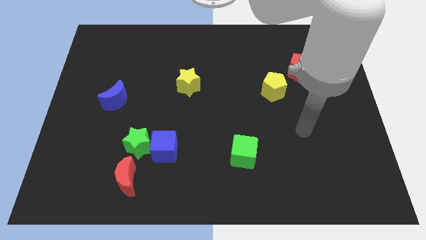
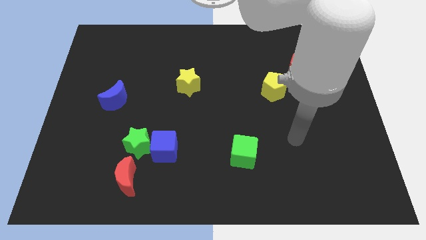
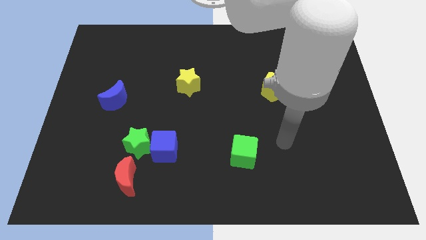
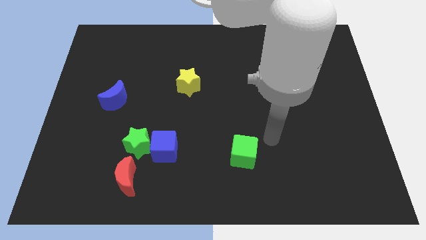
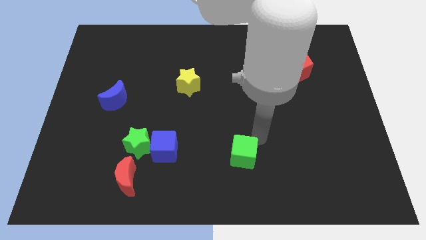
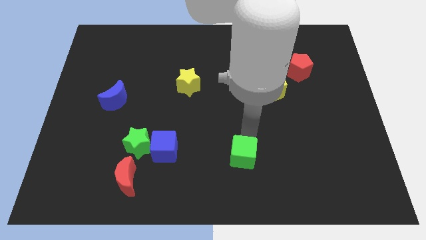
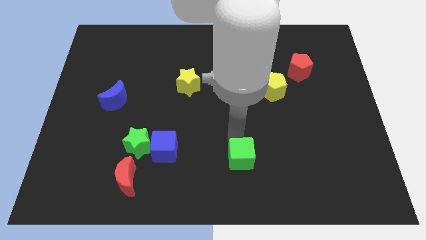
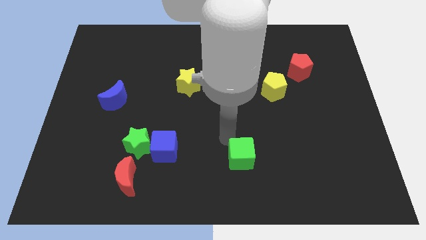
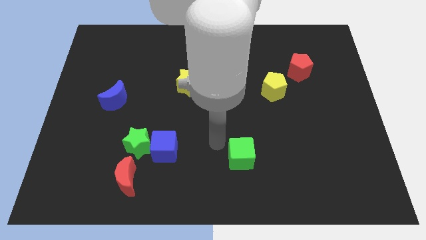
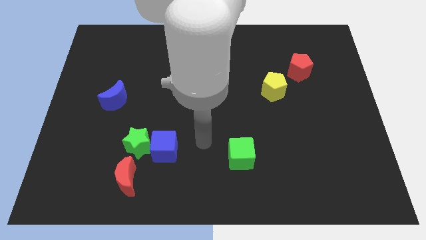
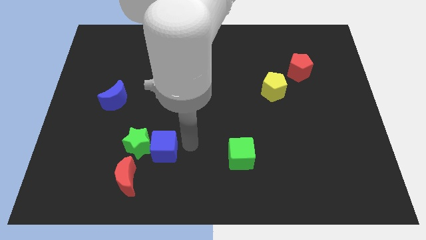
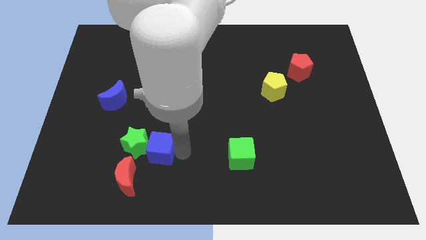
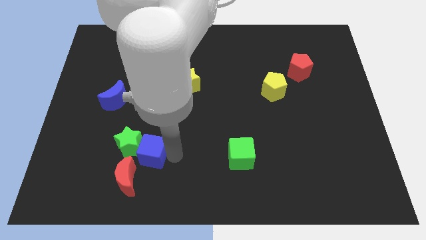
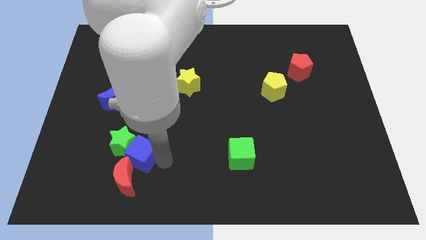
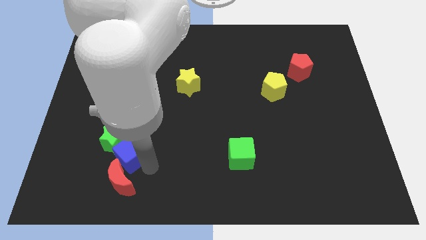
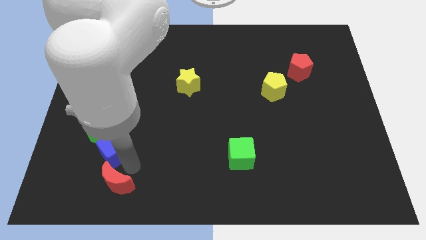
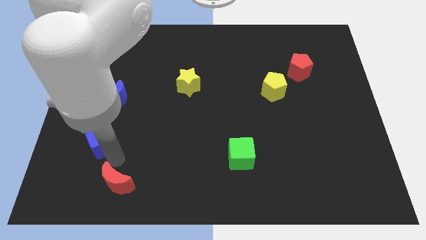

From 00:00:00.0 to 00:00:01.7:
separate the green star from the blue cube and red moon

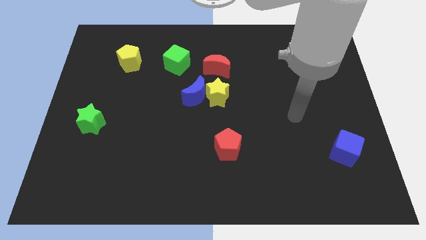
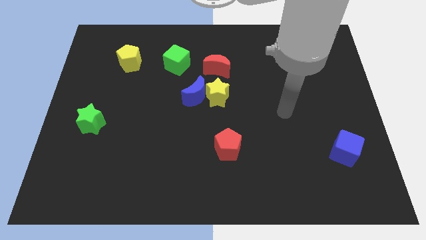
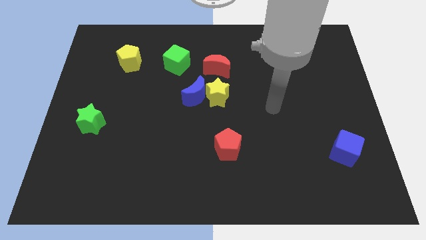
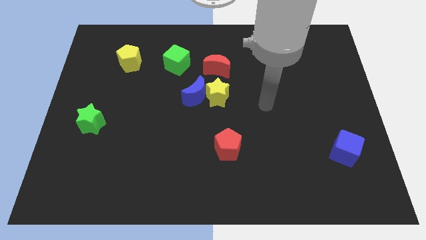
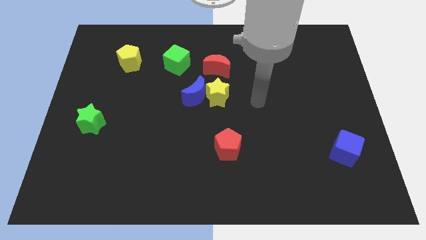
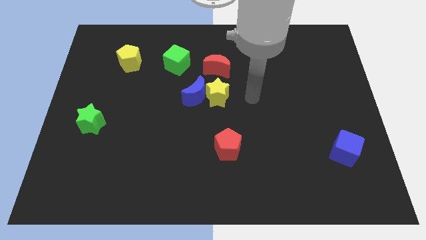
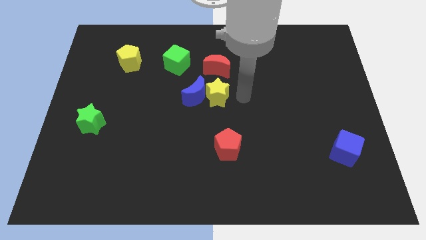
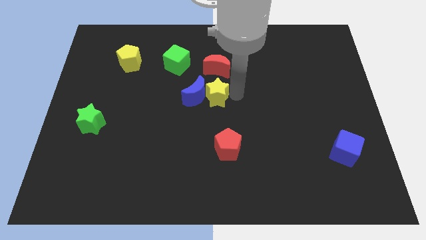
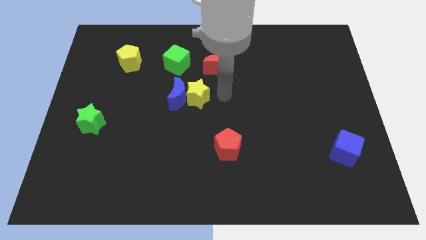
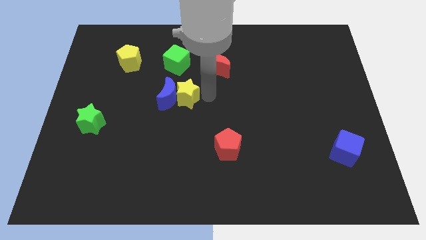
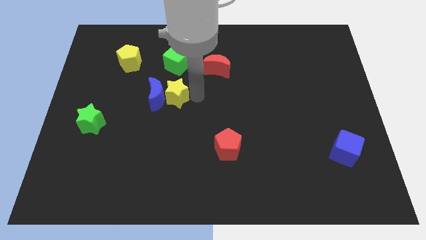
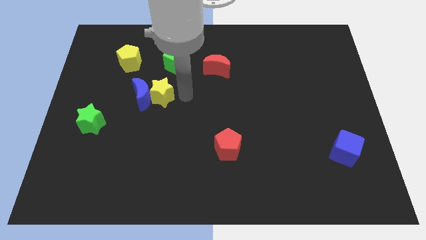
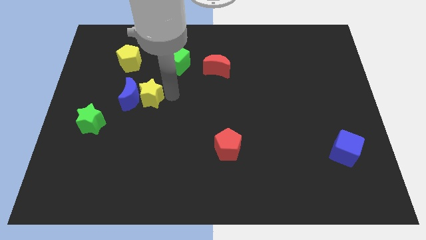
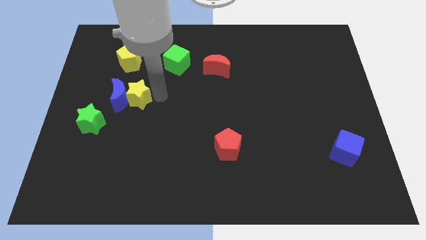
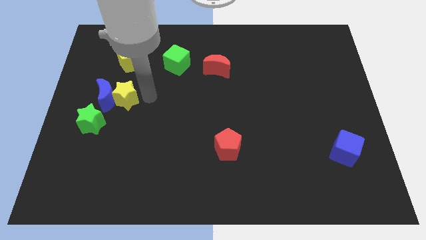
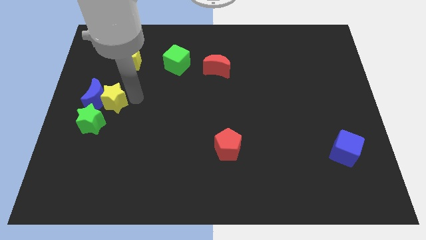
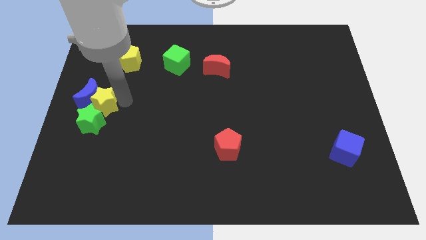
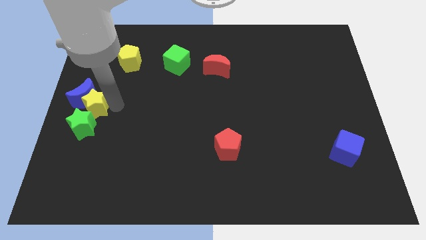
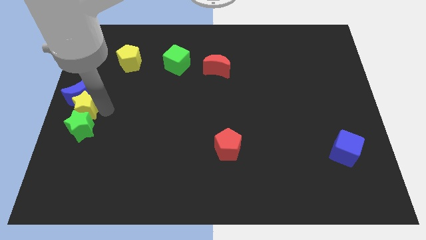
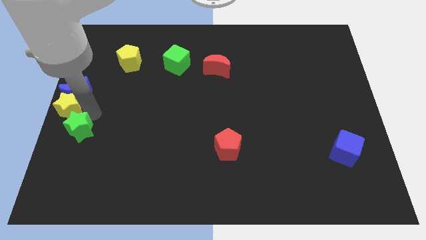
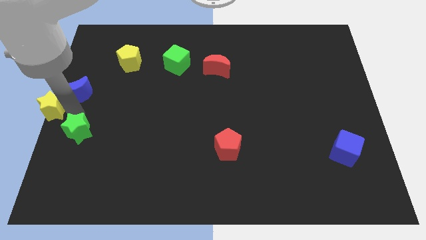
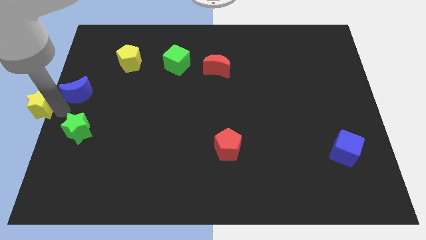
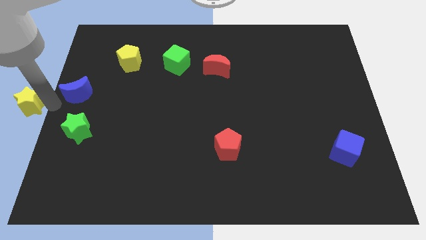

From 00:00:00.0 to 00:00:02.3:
separate the blue moon from the yellow star

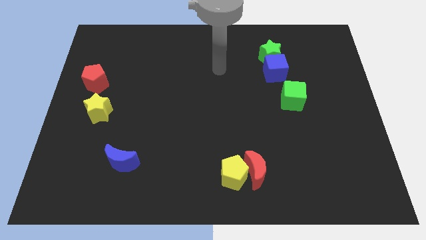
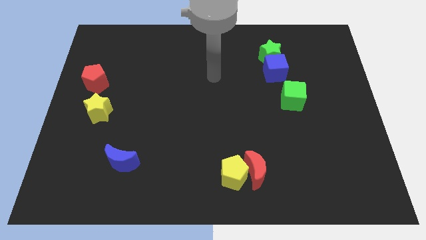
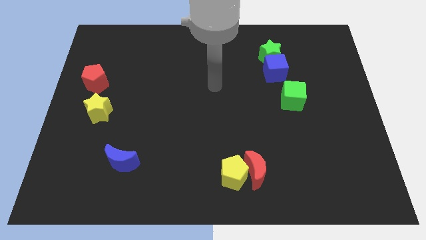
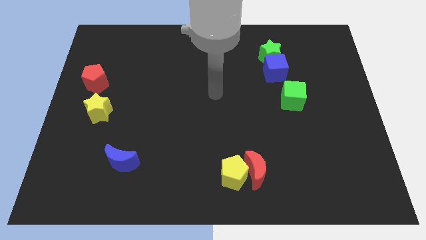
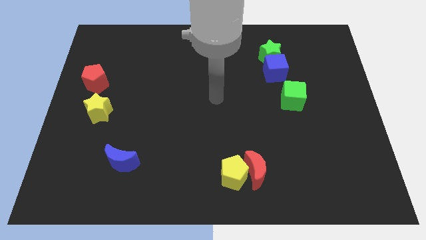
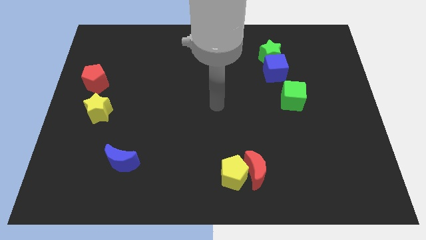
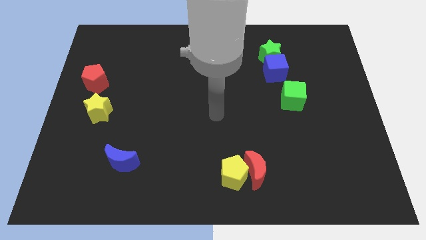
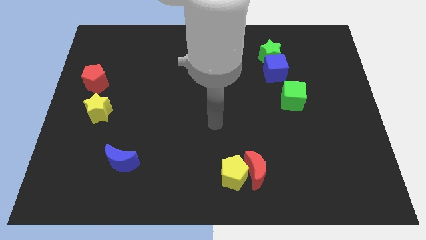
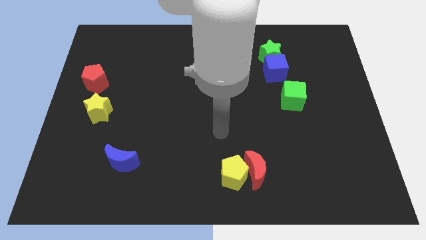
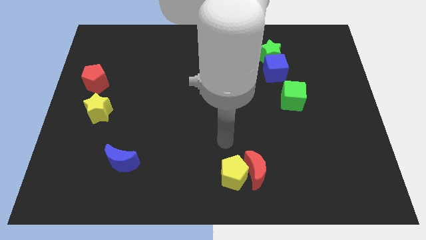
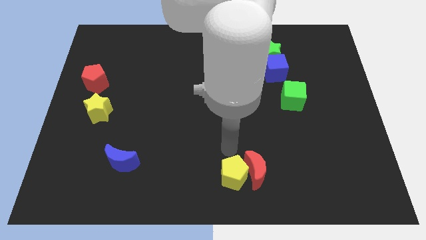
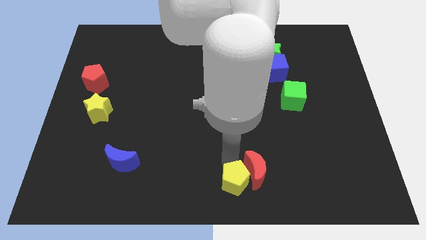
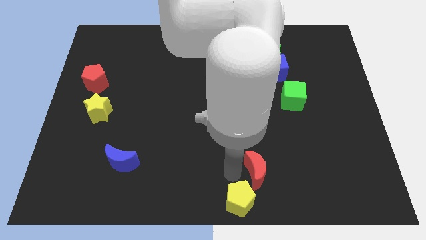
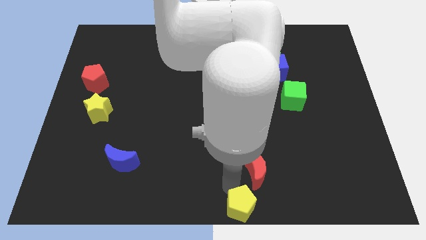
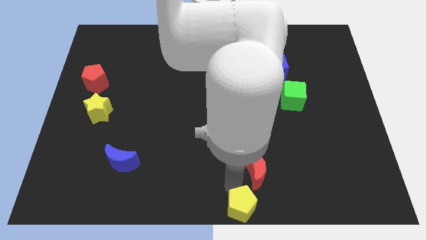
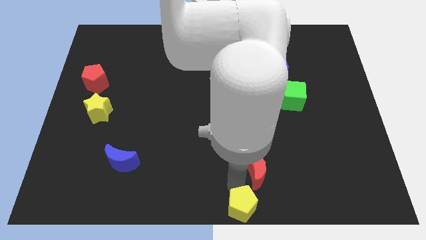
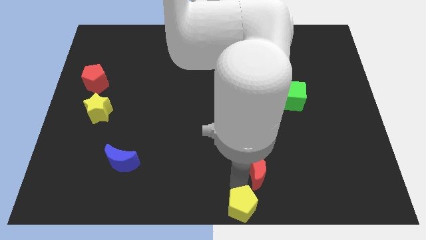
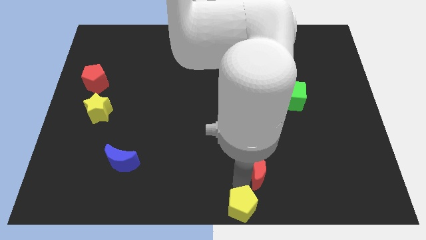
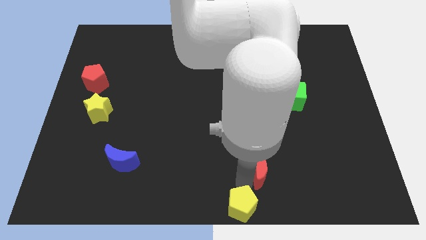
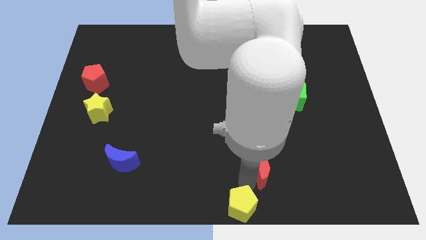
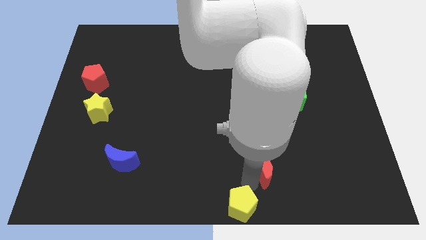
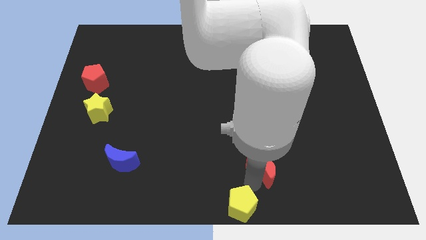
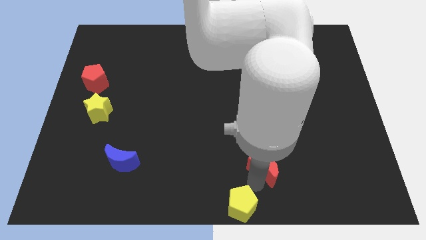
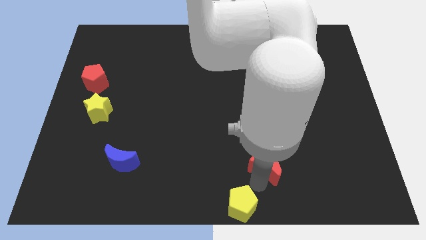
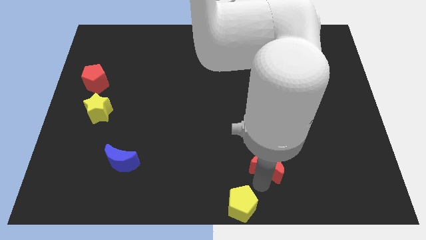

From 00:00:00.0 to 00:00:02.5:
separate the red moon from the yellow pentagon

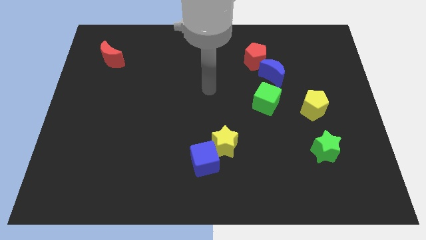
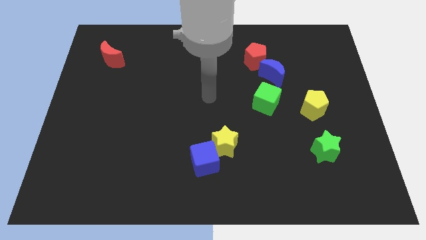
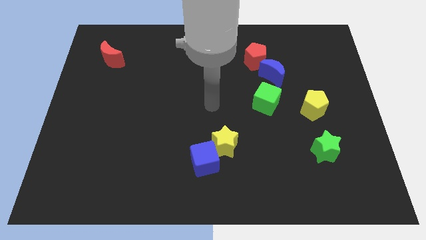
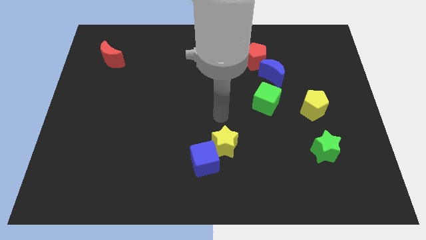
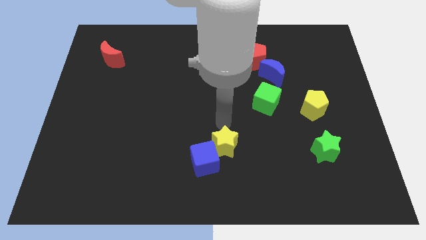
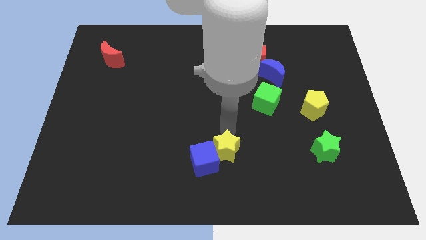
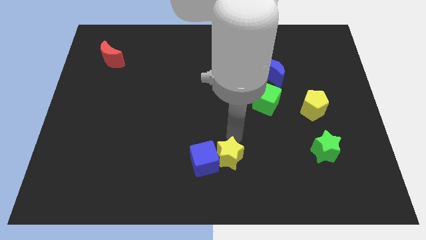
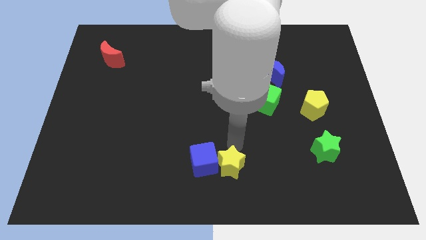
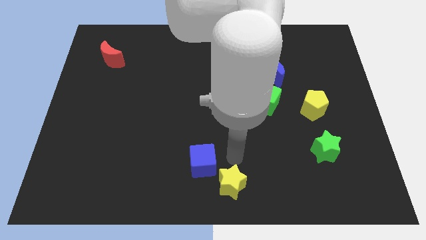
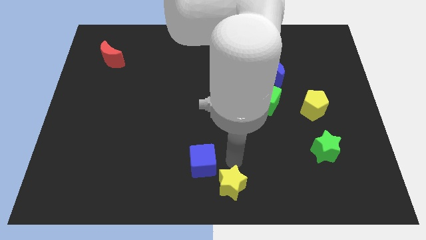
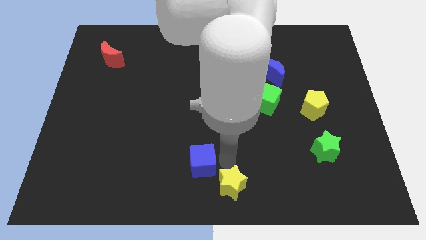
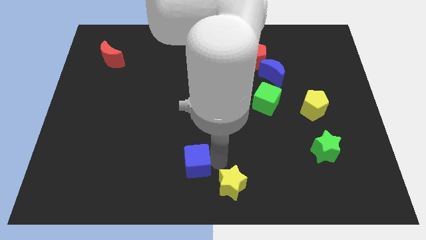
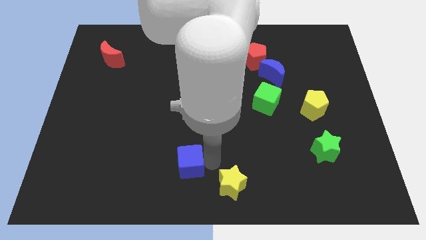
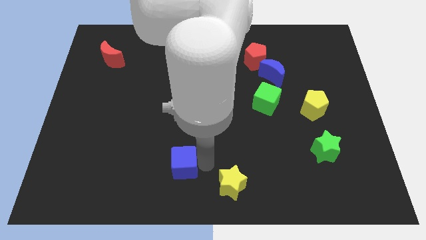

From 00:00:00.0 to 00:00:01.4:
separate the blue cube from the yellow star

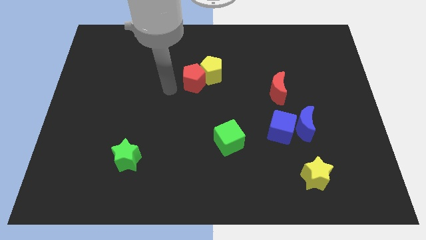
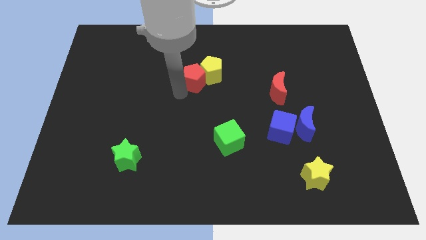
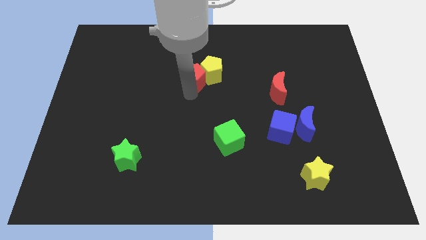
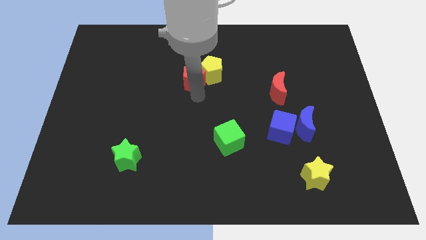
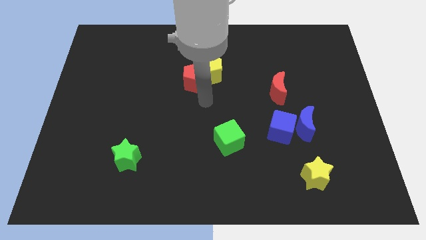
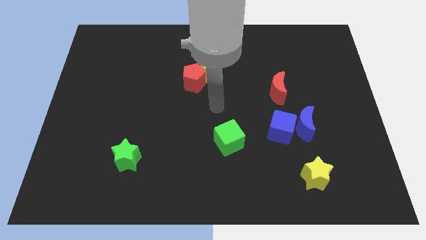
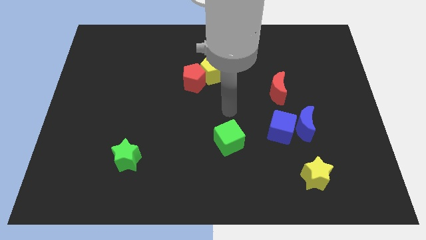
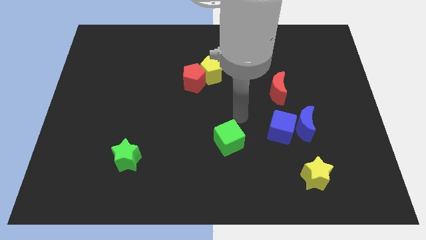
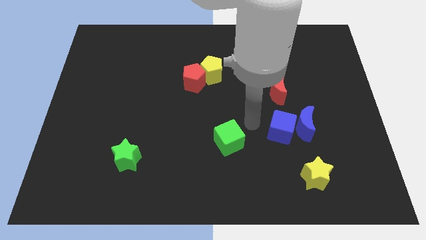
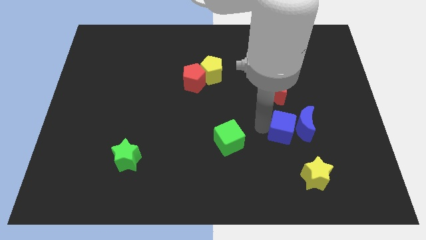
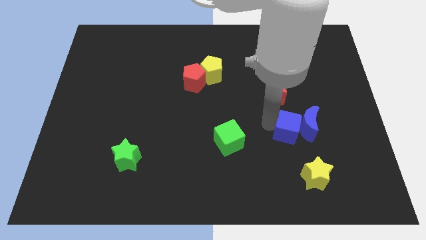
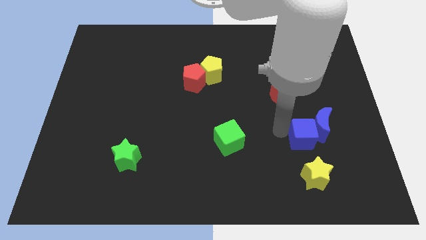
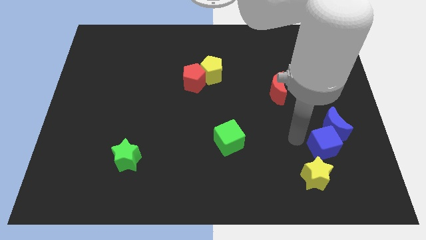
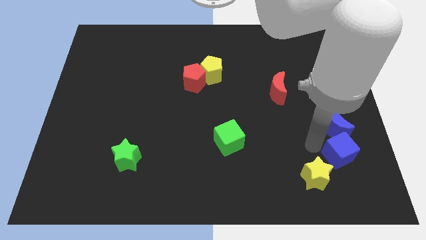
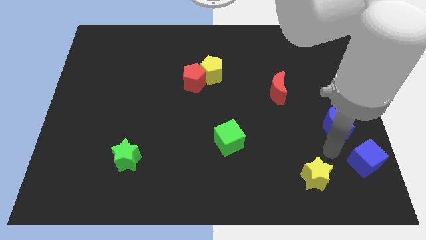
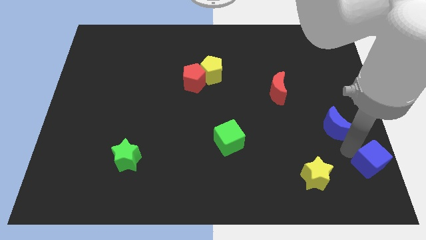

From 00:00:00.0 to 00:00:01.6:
pull the blue moon apart from the blue cube
